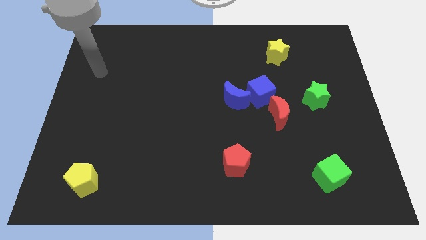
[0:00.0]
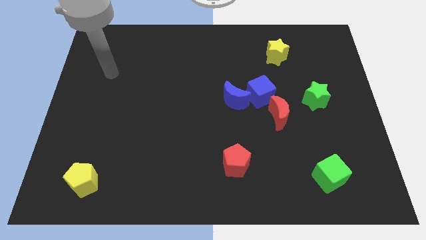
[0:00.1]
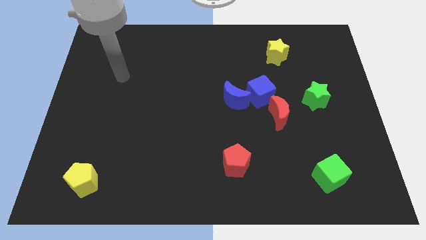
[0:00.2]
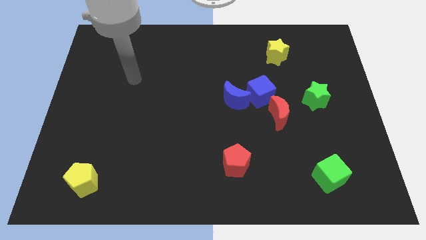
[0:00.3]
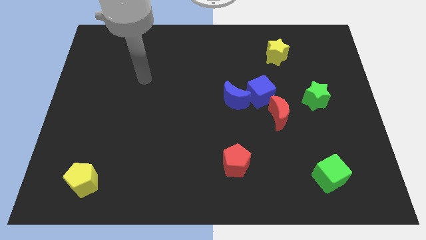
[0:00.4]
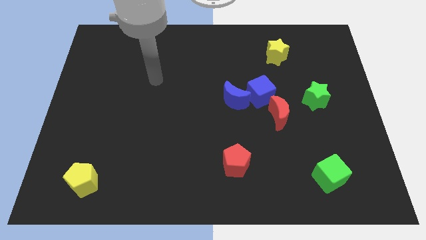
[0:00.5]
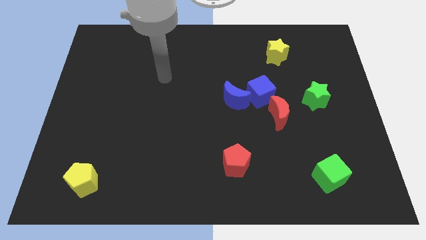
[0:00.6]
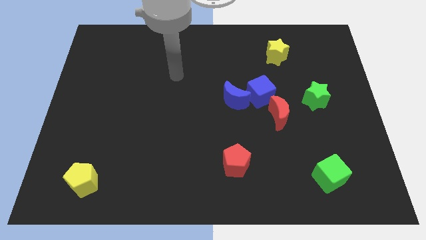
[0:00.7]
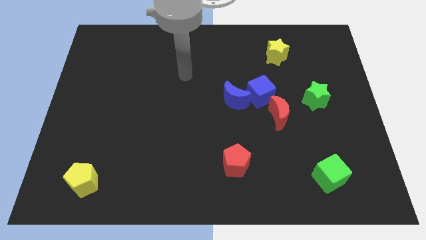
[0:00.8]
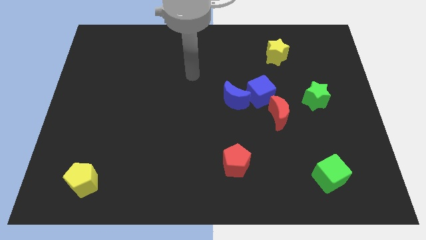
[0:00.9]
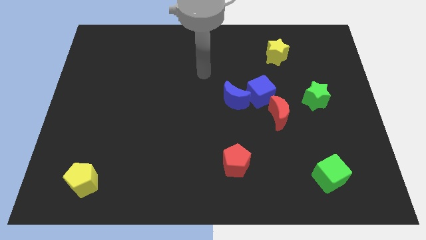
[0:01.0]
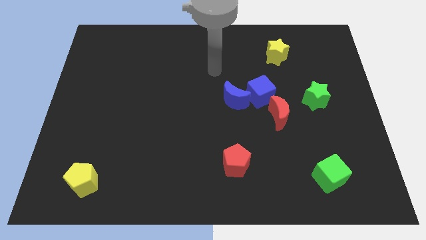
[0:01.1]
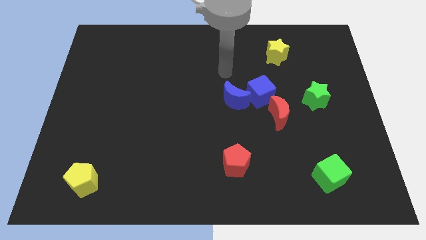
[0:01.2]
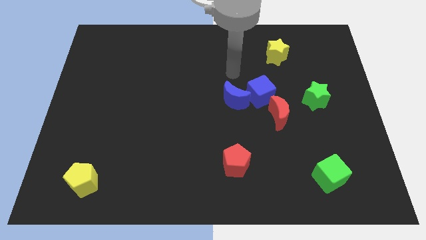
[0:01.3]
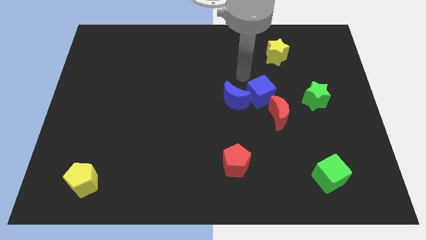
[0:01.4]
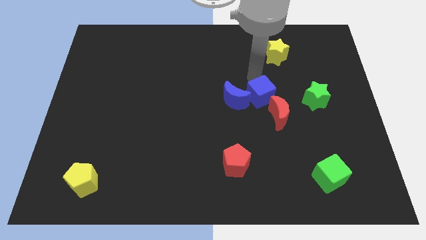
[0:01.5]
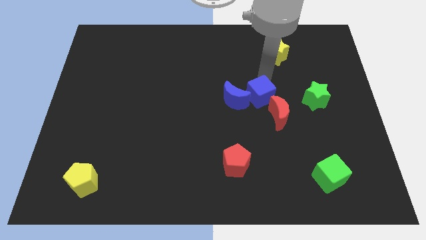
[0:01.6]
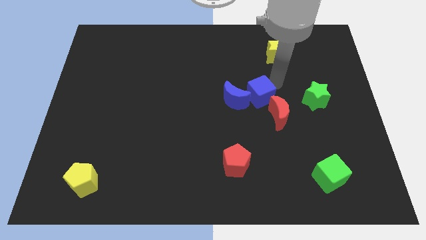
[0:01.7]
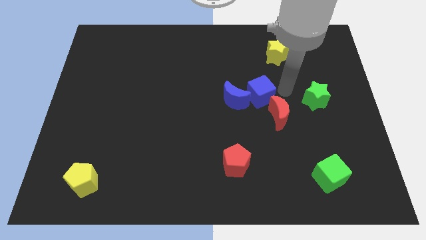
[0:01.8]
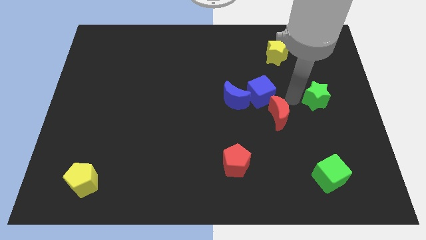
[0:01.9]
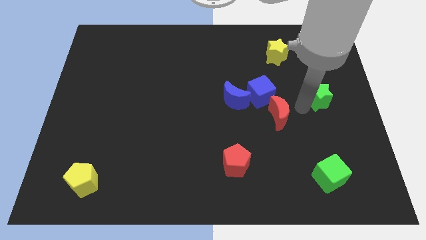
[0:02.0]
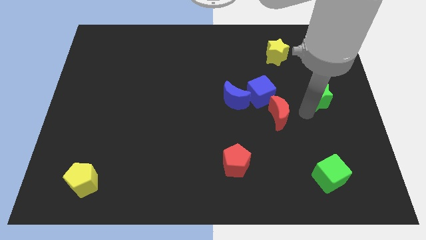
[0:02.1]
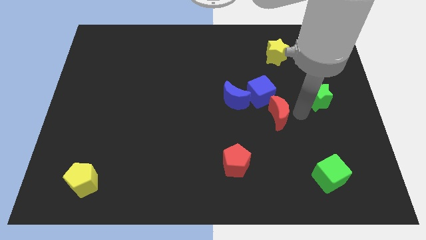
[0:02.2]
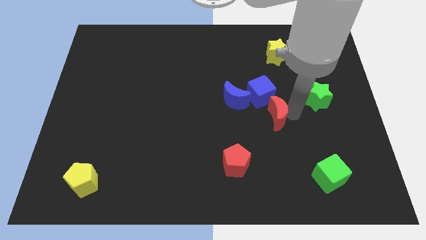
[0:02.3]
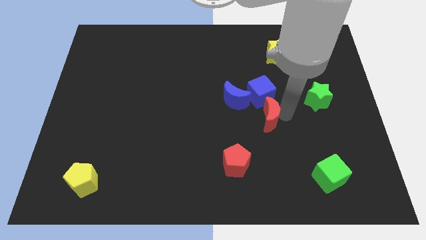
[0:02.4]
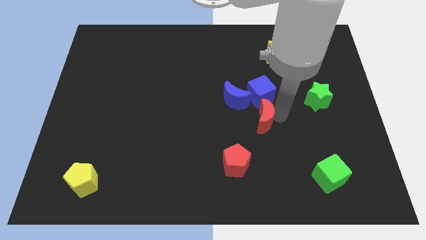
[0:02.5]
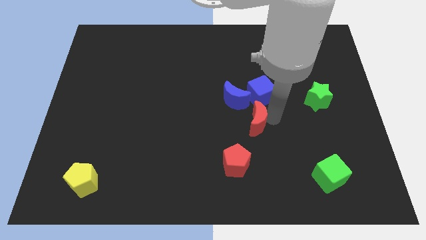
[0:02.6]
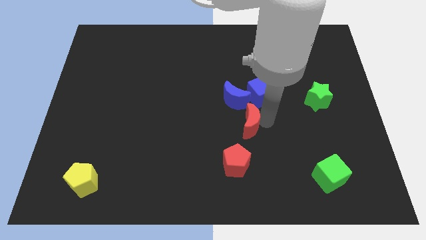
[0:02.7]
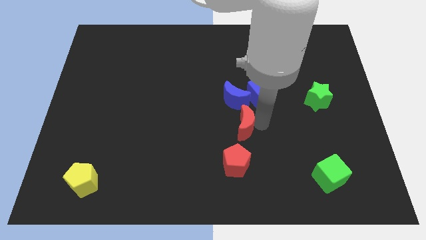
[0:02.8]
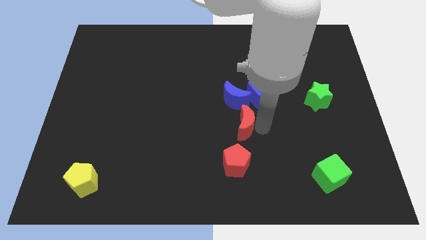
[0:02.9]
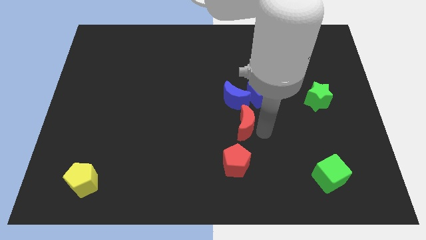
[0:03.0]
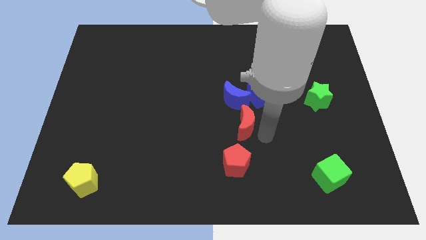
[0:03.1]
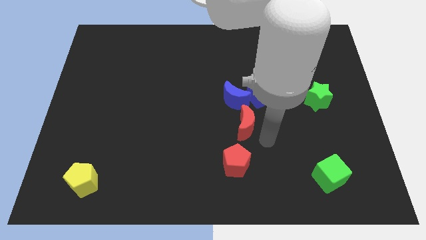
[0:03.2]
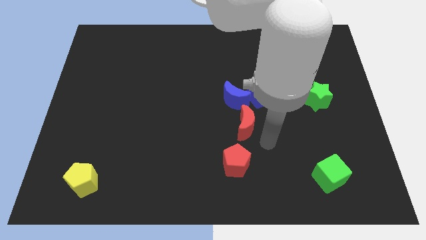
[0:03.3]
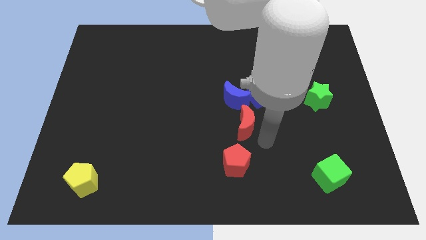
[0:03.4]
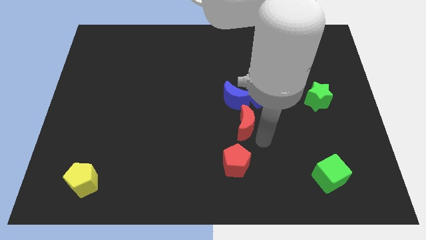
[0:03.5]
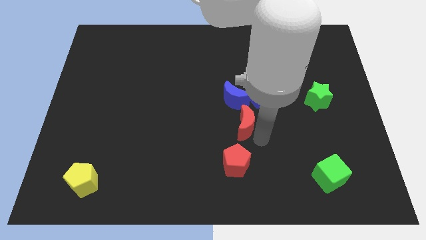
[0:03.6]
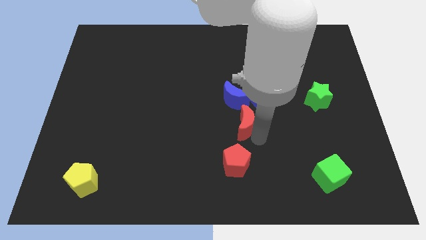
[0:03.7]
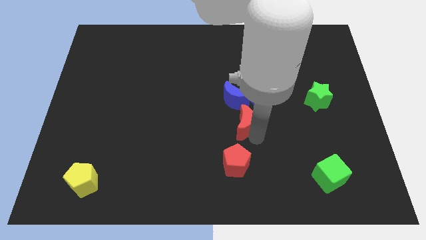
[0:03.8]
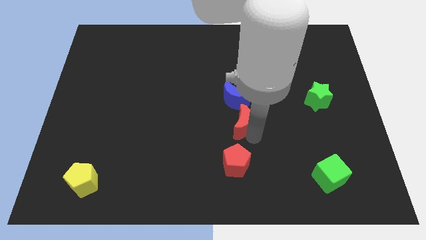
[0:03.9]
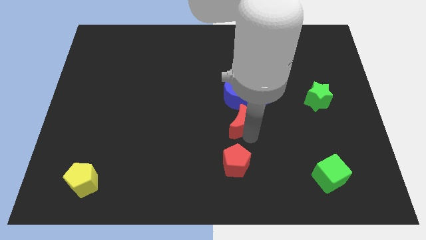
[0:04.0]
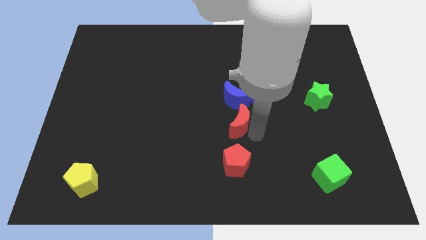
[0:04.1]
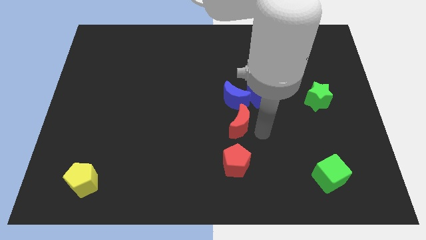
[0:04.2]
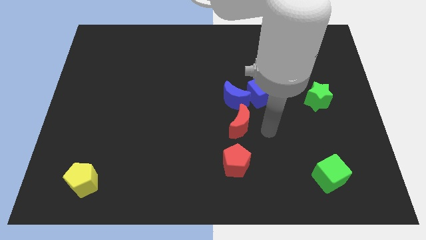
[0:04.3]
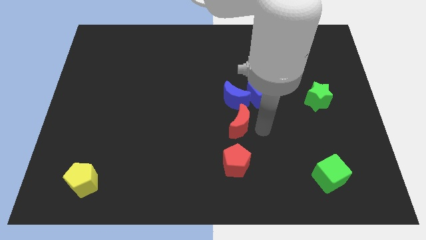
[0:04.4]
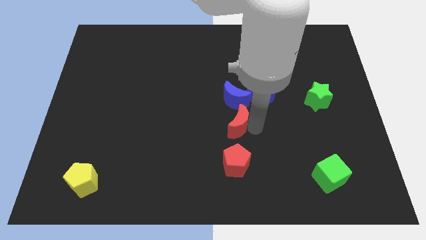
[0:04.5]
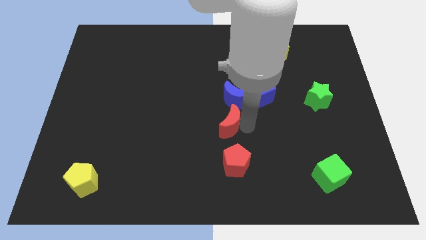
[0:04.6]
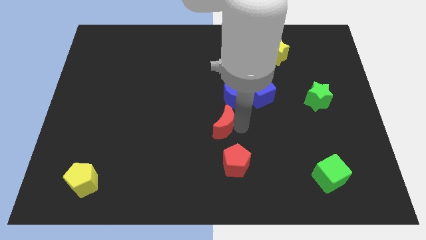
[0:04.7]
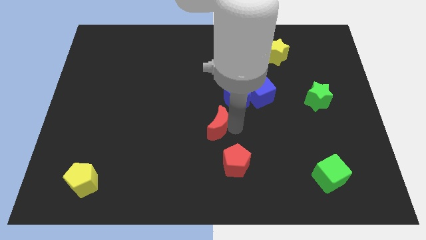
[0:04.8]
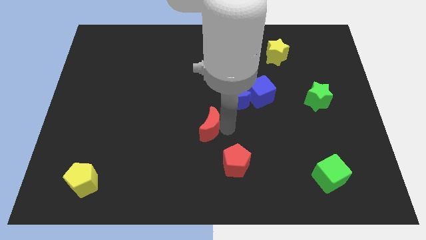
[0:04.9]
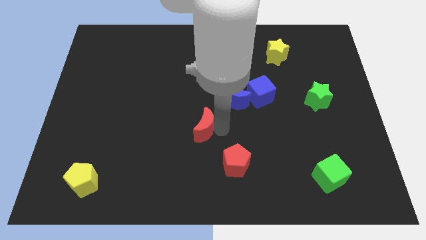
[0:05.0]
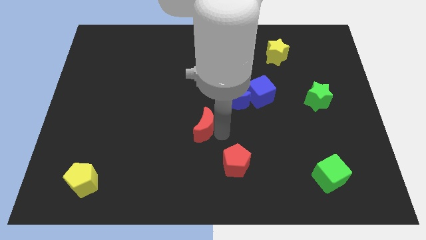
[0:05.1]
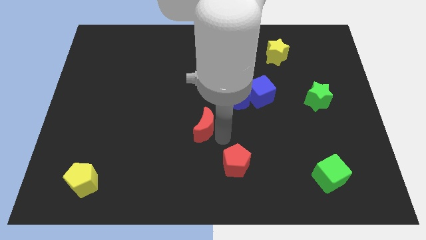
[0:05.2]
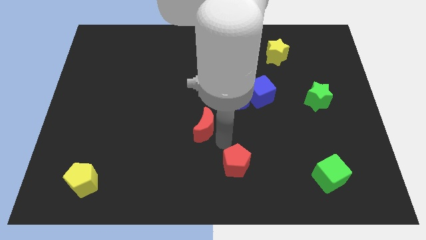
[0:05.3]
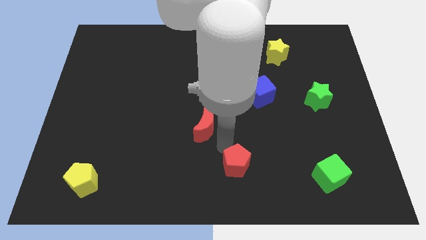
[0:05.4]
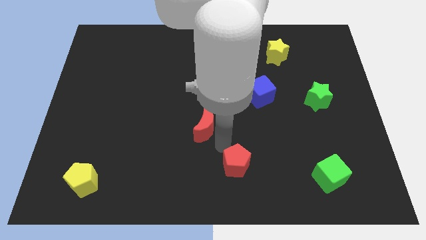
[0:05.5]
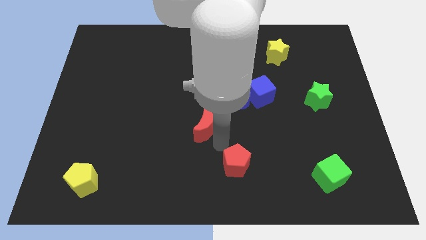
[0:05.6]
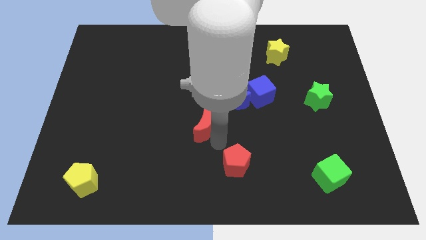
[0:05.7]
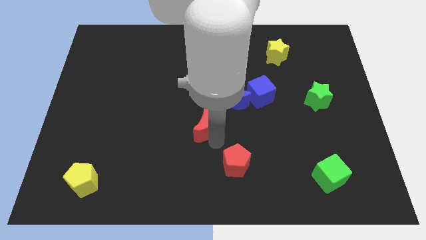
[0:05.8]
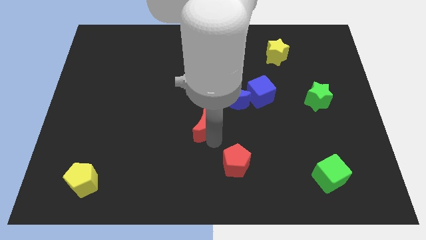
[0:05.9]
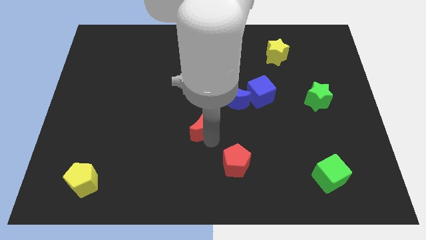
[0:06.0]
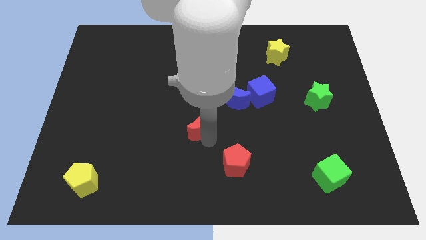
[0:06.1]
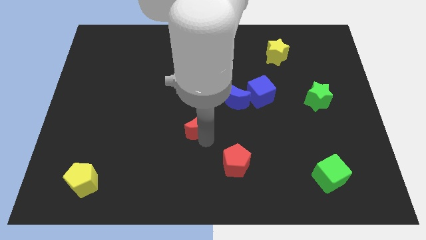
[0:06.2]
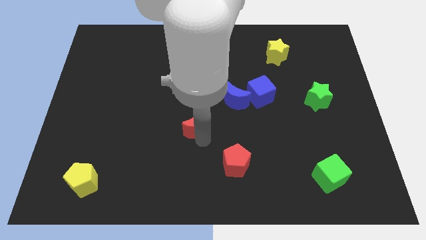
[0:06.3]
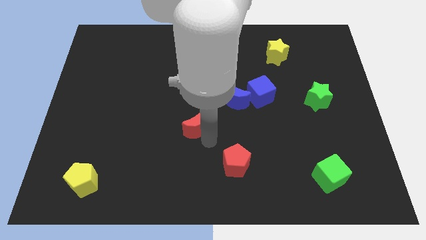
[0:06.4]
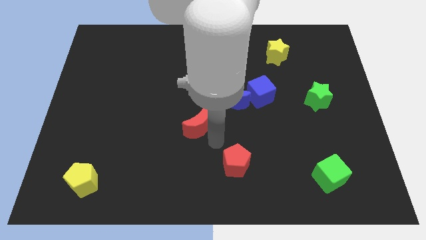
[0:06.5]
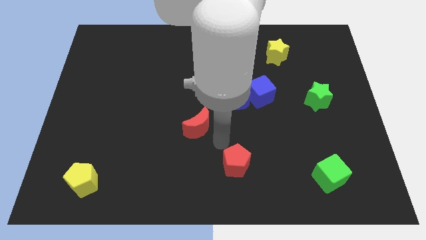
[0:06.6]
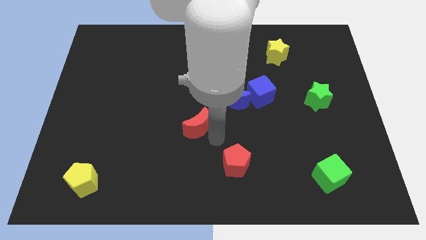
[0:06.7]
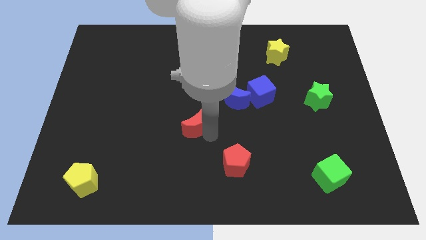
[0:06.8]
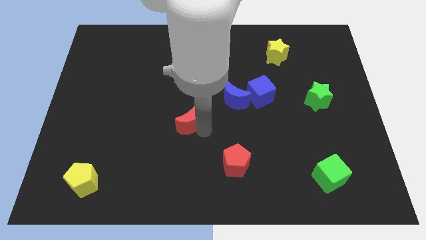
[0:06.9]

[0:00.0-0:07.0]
push the red moon left

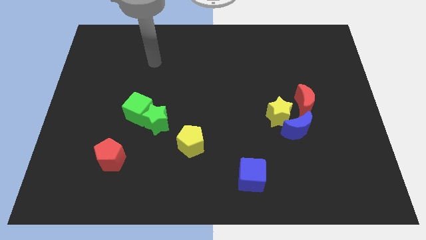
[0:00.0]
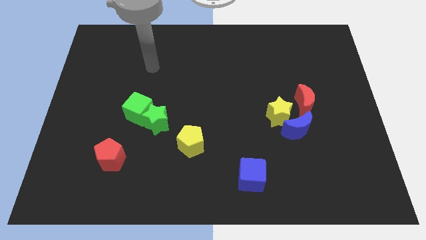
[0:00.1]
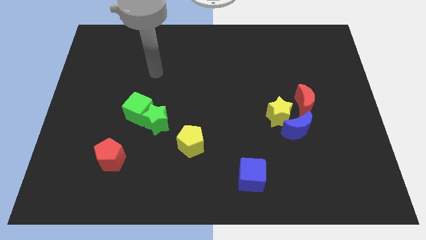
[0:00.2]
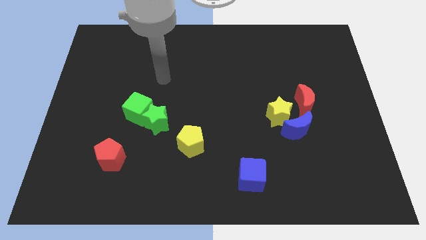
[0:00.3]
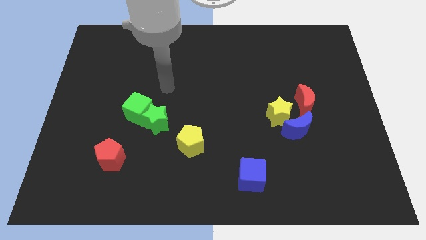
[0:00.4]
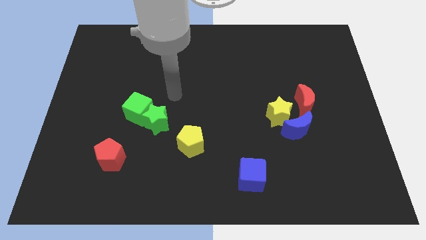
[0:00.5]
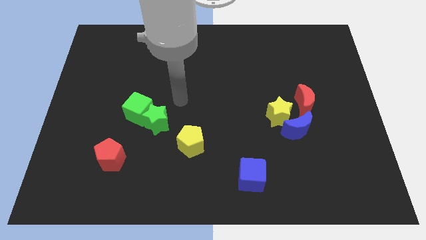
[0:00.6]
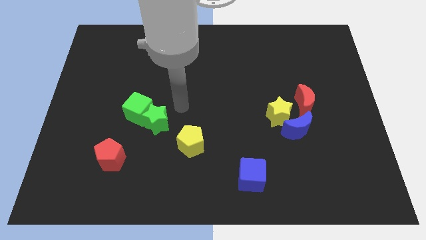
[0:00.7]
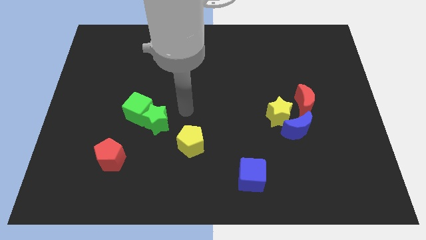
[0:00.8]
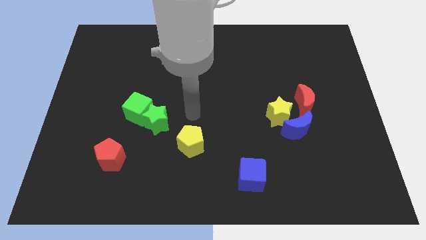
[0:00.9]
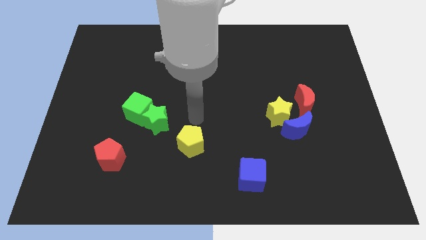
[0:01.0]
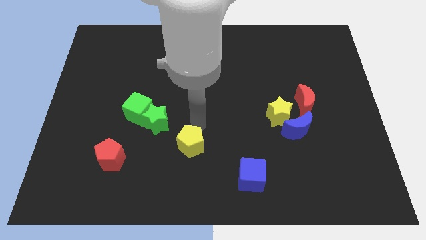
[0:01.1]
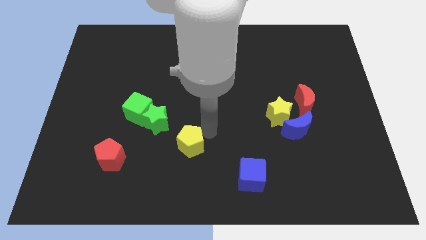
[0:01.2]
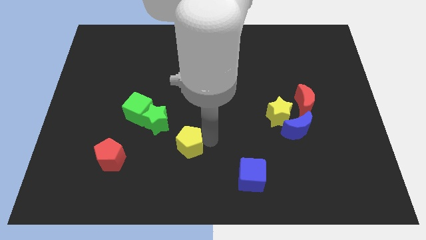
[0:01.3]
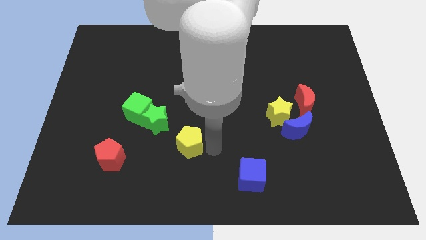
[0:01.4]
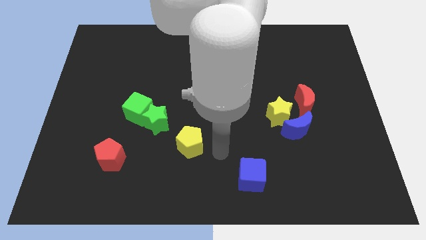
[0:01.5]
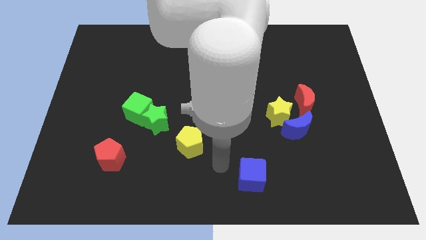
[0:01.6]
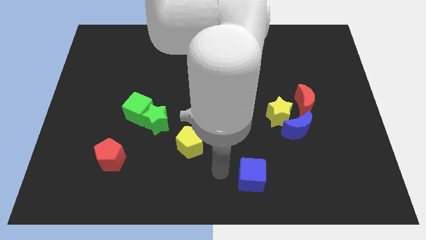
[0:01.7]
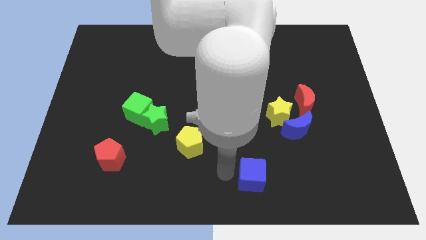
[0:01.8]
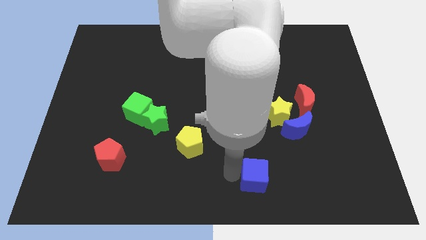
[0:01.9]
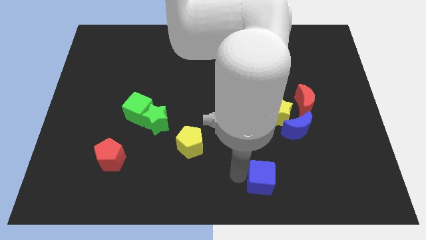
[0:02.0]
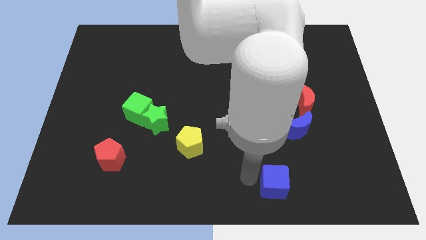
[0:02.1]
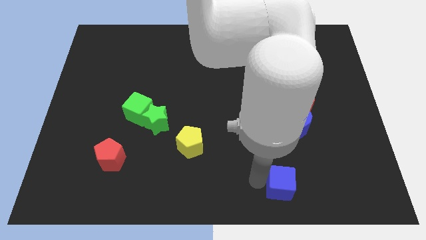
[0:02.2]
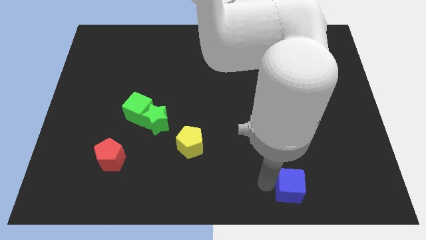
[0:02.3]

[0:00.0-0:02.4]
move the blue cube somewhat right
